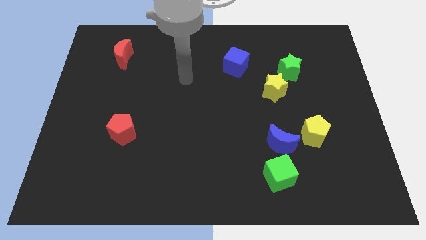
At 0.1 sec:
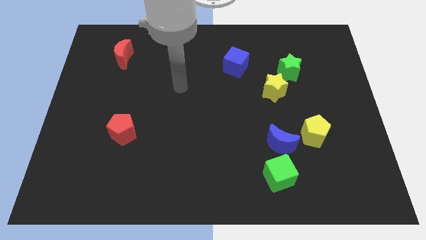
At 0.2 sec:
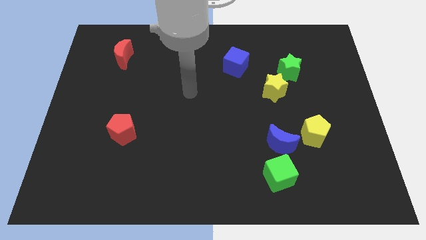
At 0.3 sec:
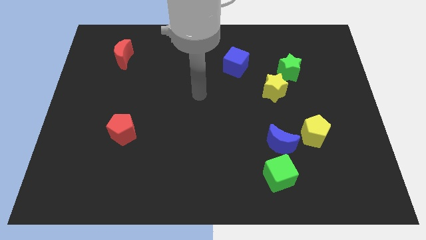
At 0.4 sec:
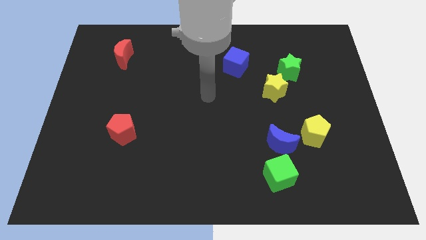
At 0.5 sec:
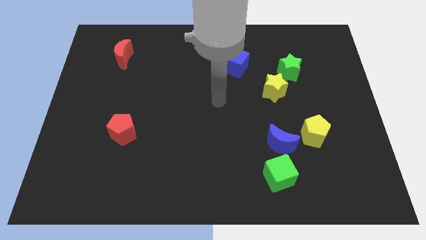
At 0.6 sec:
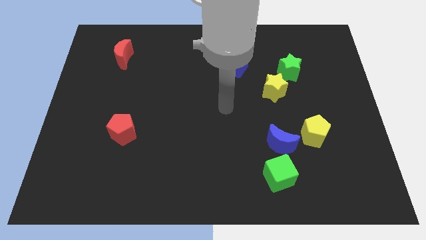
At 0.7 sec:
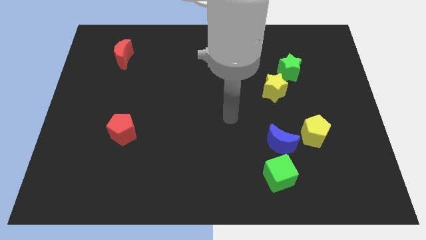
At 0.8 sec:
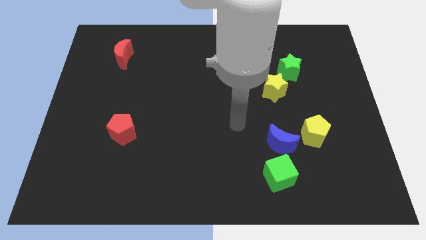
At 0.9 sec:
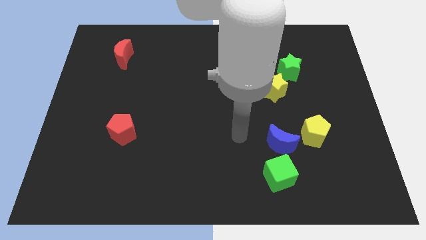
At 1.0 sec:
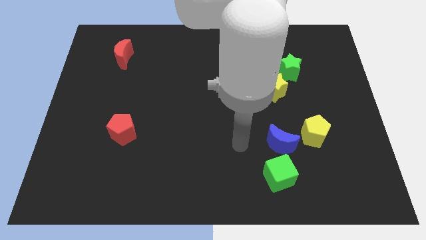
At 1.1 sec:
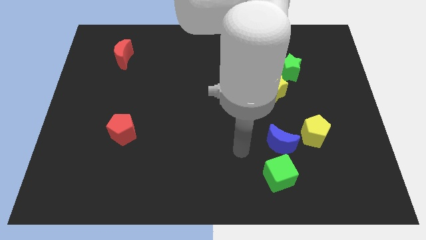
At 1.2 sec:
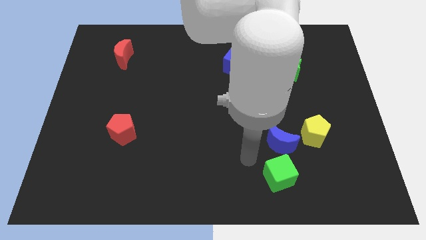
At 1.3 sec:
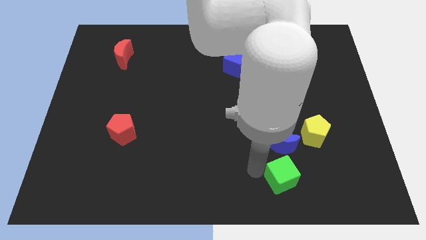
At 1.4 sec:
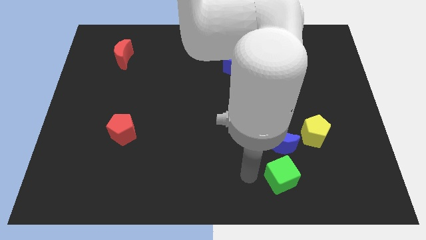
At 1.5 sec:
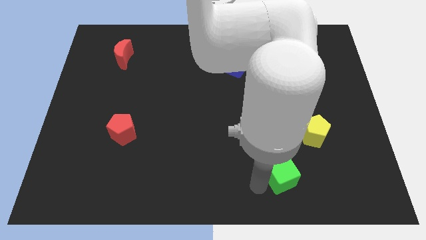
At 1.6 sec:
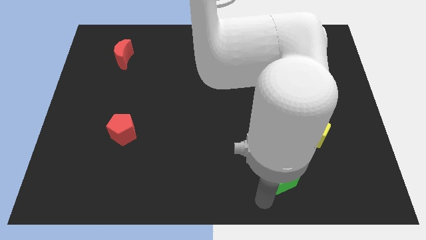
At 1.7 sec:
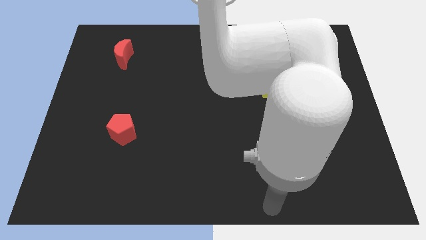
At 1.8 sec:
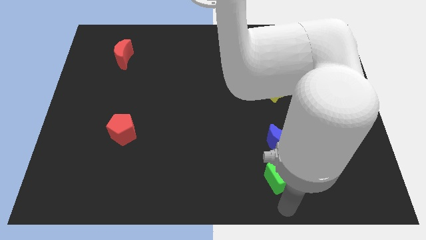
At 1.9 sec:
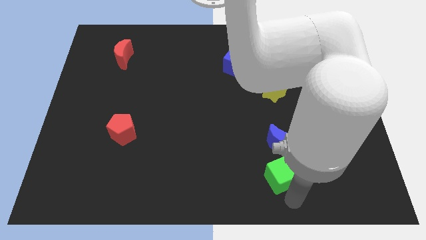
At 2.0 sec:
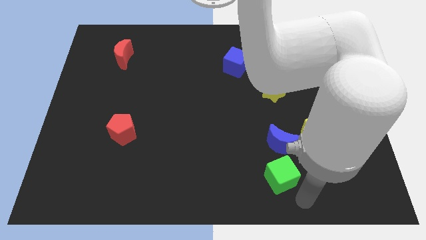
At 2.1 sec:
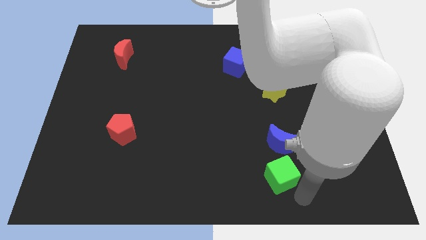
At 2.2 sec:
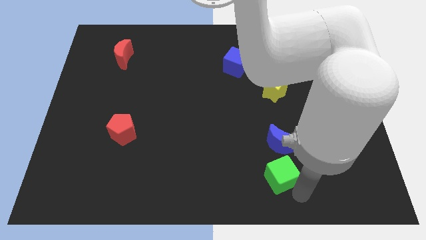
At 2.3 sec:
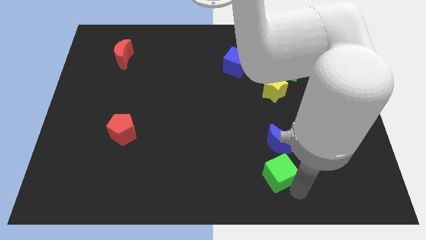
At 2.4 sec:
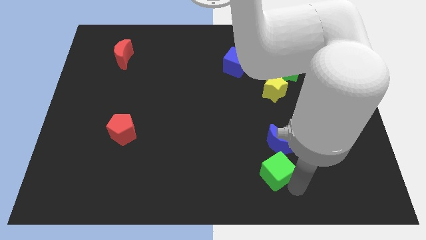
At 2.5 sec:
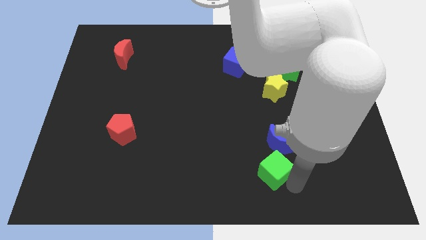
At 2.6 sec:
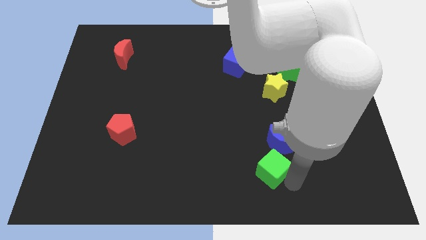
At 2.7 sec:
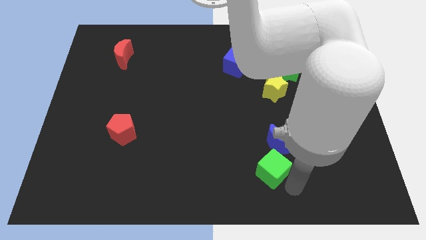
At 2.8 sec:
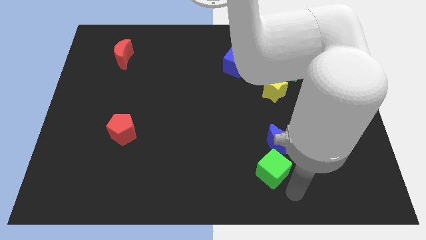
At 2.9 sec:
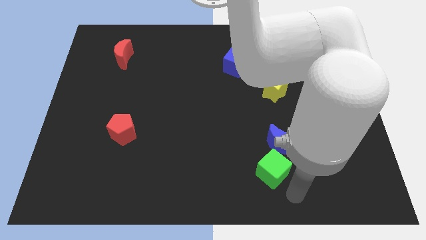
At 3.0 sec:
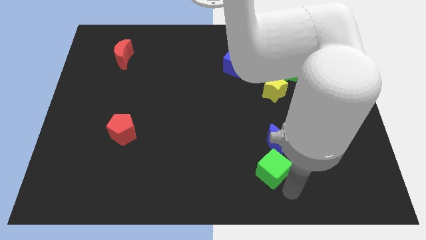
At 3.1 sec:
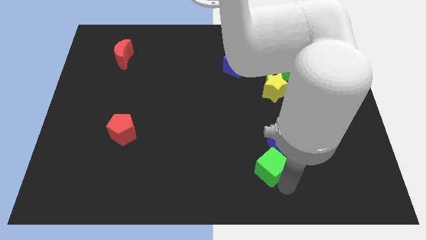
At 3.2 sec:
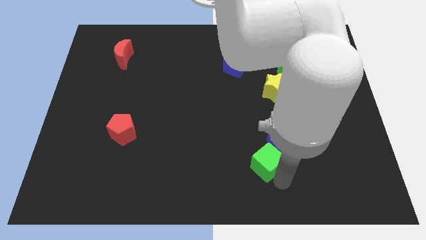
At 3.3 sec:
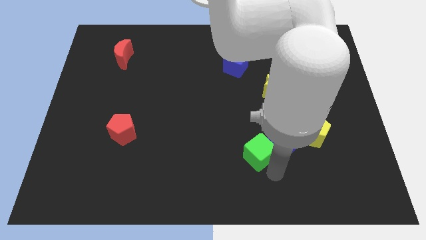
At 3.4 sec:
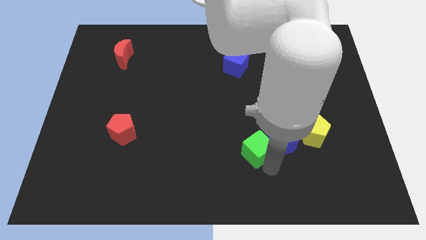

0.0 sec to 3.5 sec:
push the green cube slightly upwards and left diagonally

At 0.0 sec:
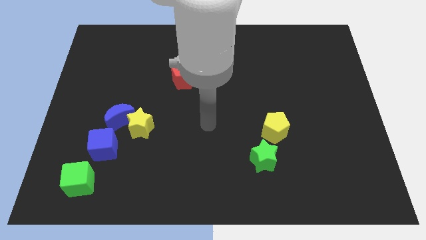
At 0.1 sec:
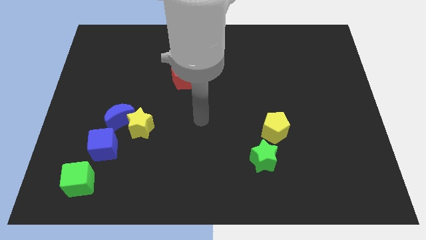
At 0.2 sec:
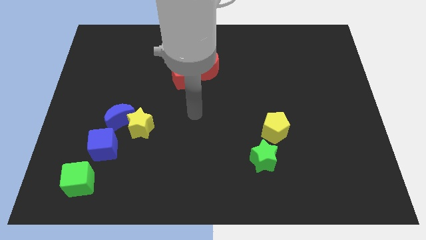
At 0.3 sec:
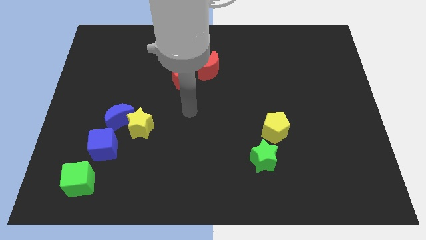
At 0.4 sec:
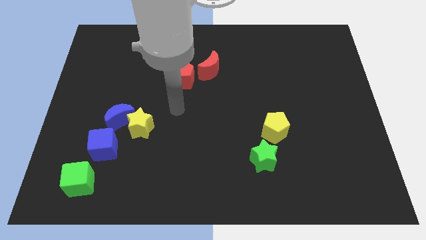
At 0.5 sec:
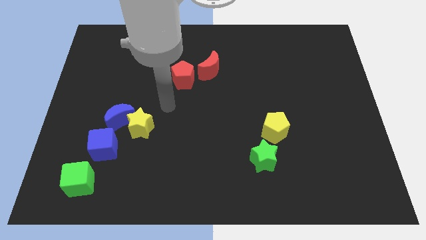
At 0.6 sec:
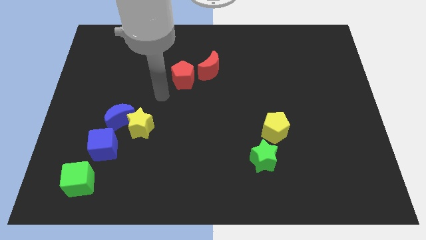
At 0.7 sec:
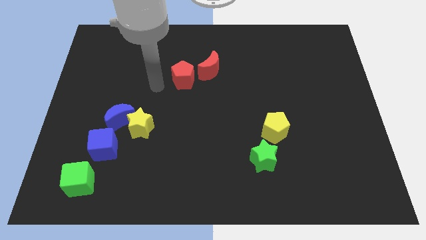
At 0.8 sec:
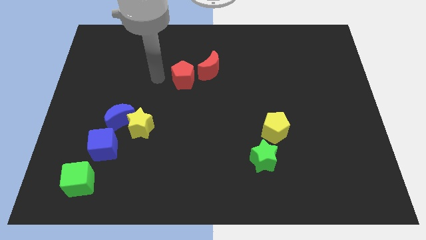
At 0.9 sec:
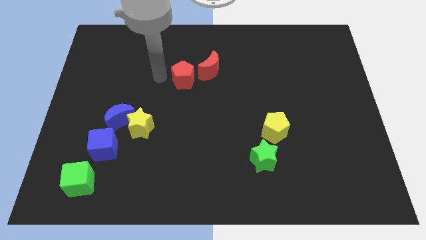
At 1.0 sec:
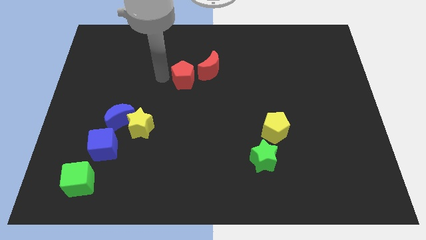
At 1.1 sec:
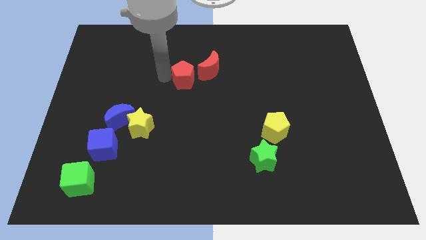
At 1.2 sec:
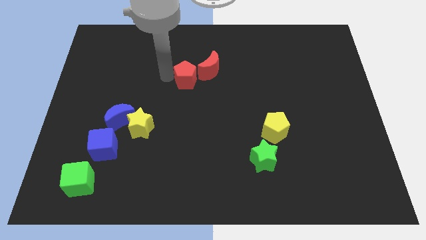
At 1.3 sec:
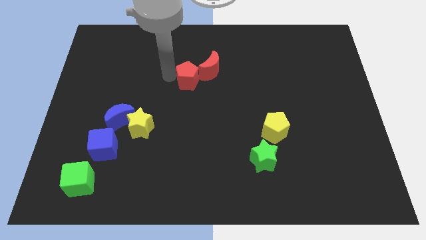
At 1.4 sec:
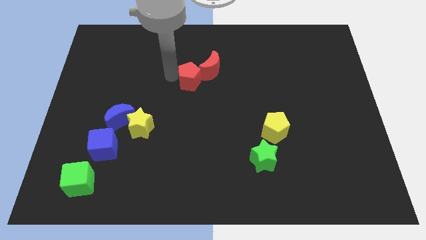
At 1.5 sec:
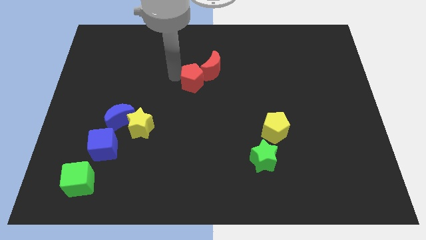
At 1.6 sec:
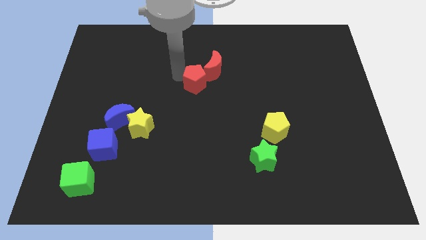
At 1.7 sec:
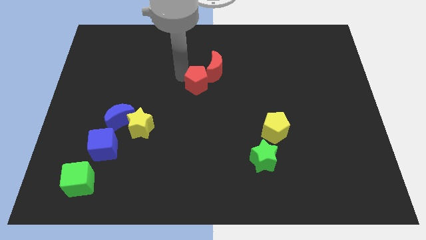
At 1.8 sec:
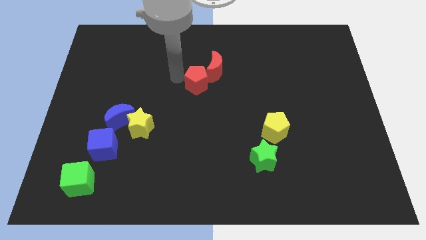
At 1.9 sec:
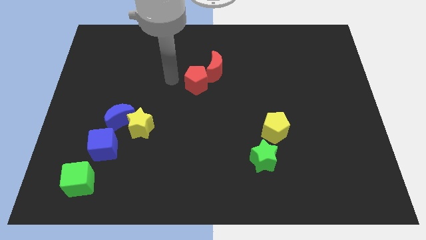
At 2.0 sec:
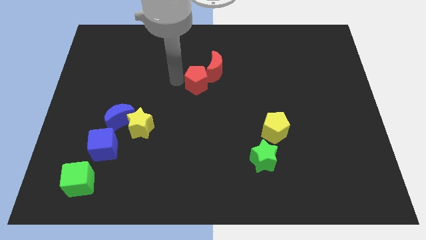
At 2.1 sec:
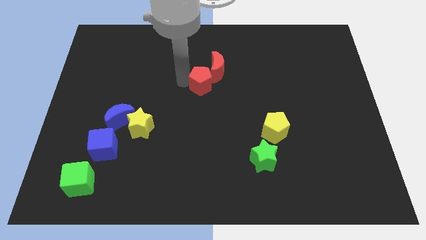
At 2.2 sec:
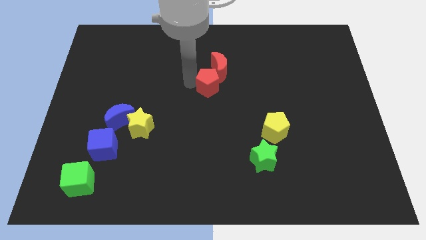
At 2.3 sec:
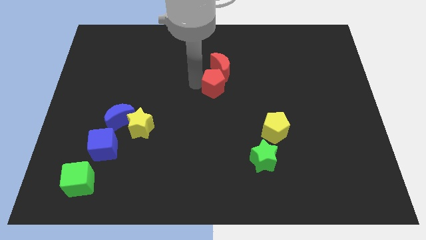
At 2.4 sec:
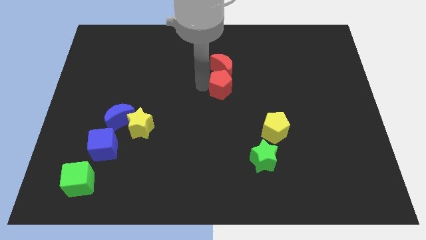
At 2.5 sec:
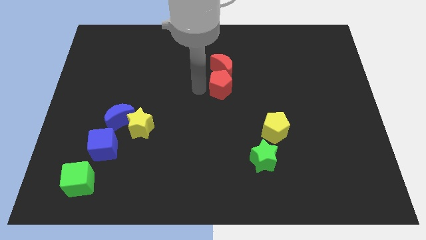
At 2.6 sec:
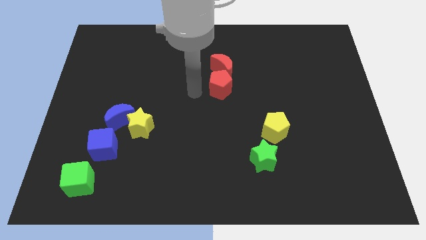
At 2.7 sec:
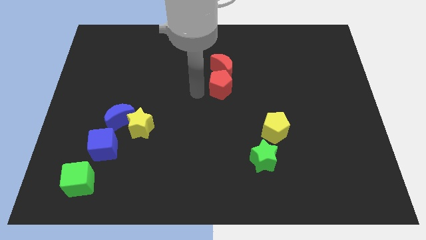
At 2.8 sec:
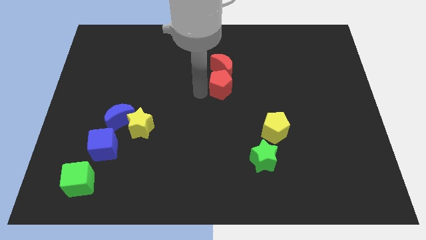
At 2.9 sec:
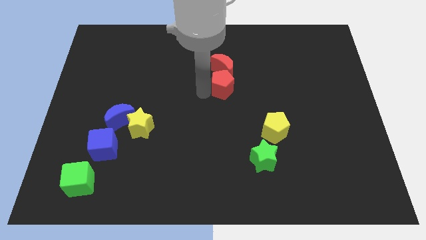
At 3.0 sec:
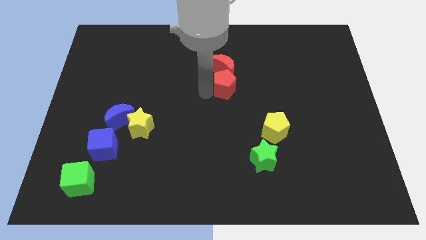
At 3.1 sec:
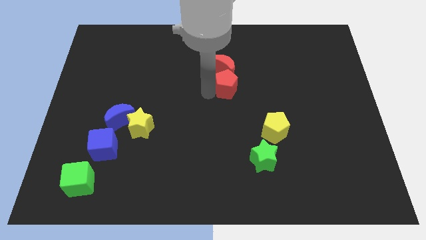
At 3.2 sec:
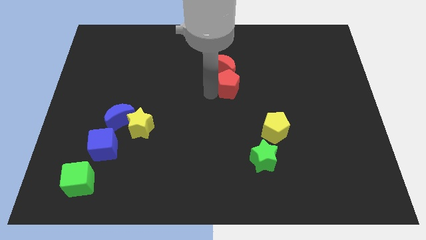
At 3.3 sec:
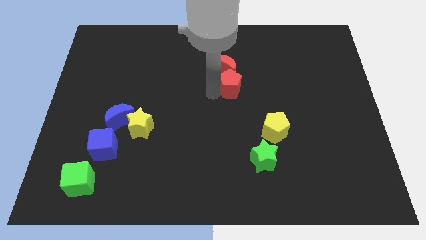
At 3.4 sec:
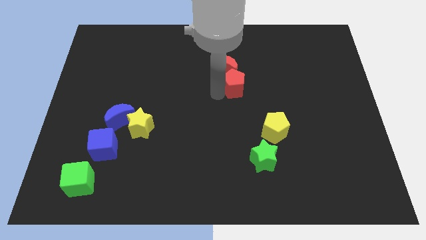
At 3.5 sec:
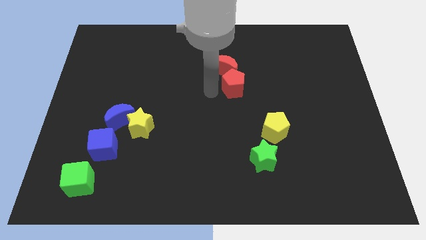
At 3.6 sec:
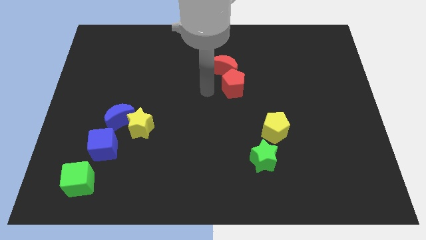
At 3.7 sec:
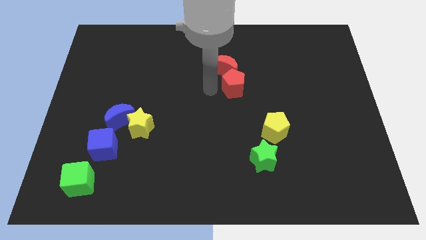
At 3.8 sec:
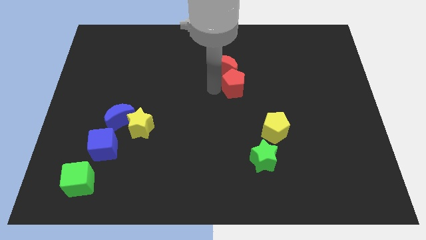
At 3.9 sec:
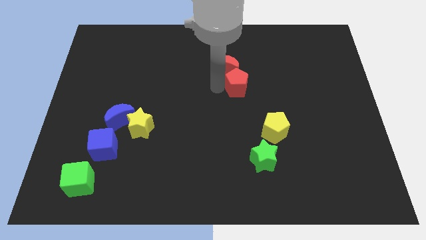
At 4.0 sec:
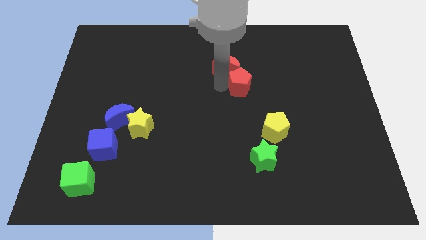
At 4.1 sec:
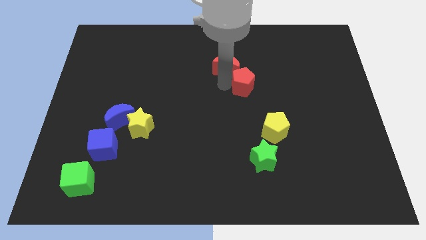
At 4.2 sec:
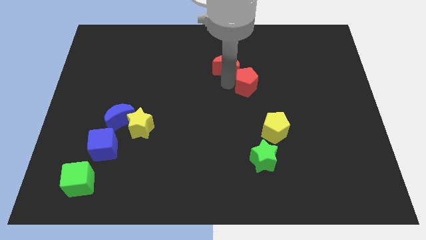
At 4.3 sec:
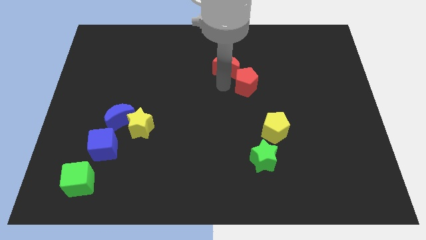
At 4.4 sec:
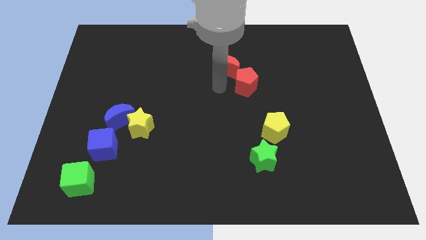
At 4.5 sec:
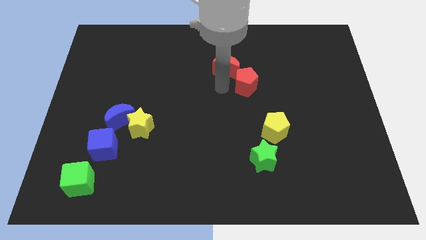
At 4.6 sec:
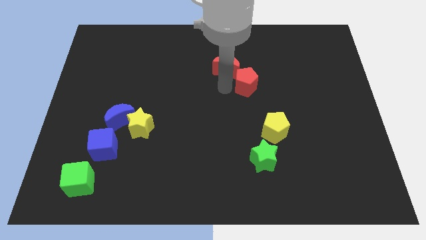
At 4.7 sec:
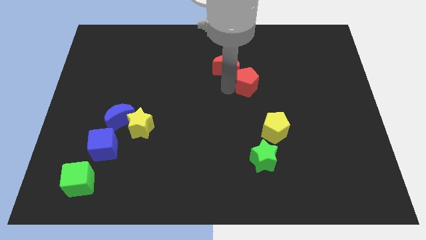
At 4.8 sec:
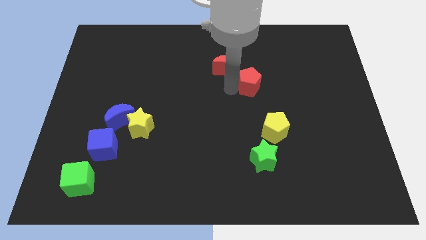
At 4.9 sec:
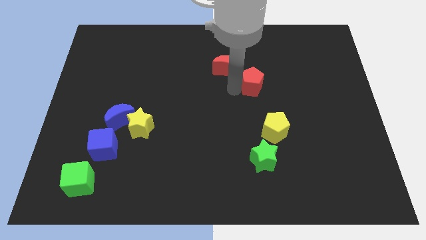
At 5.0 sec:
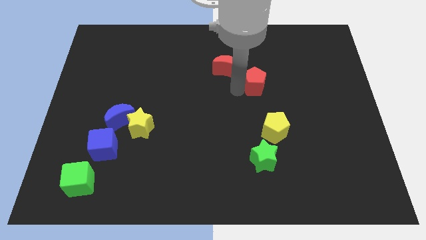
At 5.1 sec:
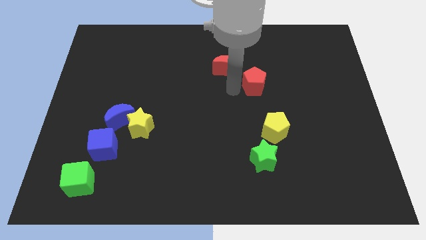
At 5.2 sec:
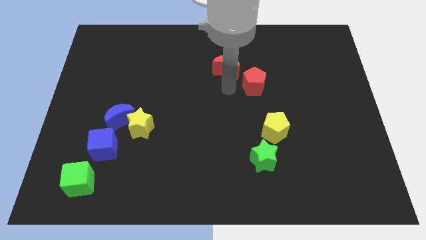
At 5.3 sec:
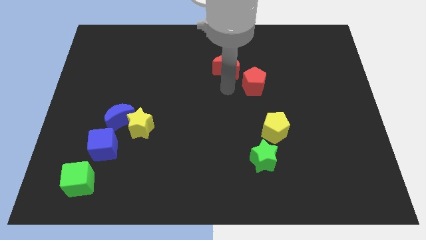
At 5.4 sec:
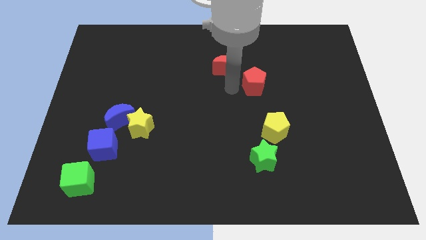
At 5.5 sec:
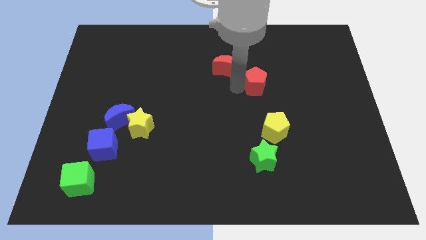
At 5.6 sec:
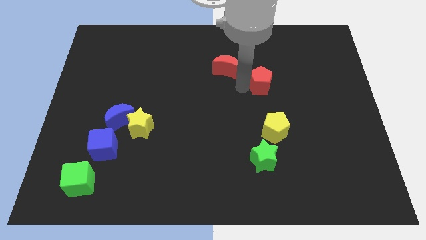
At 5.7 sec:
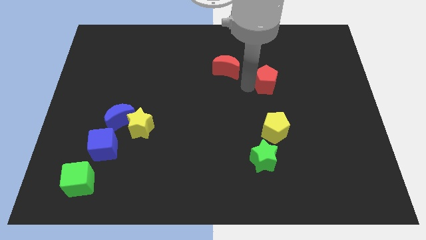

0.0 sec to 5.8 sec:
push the red pentagon to the right
